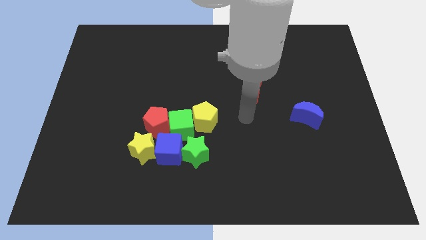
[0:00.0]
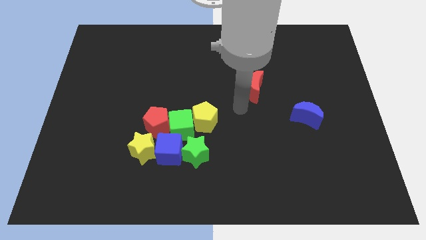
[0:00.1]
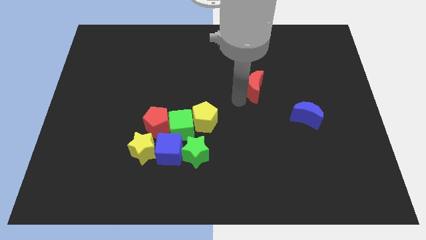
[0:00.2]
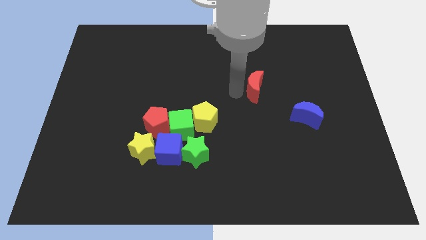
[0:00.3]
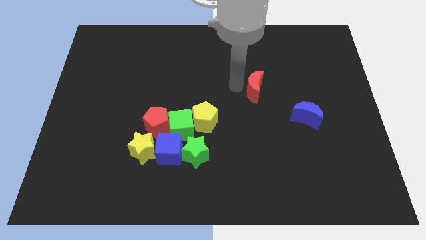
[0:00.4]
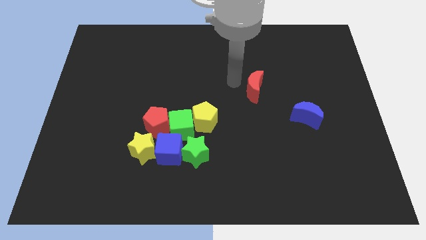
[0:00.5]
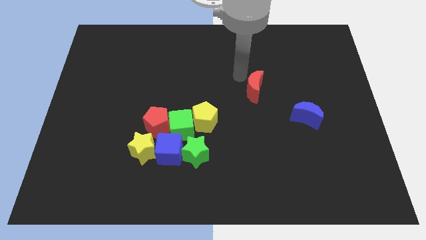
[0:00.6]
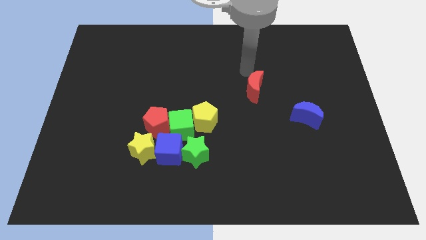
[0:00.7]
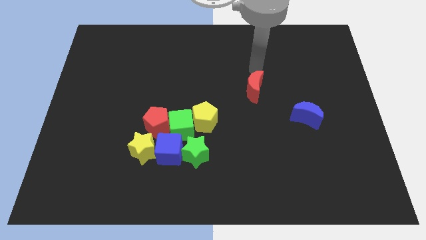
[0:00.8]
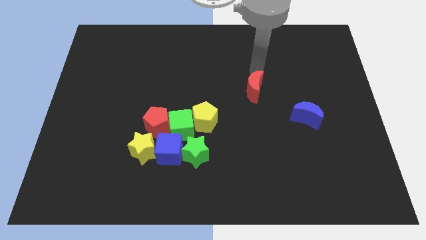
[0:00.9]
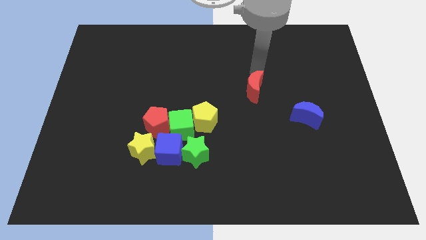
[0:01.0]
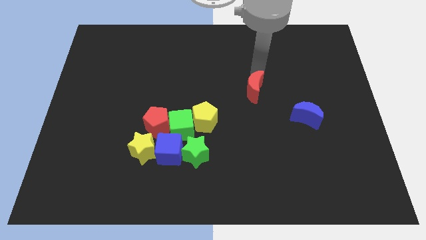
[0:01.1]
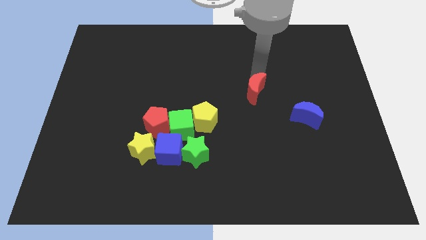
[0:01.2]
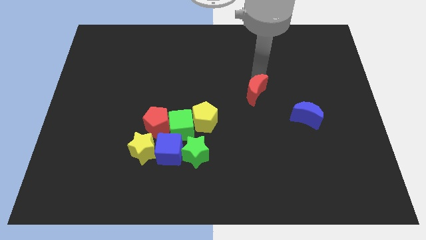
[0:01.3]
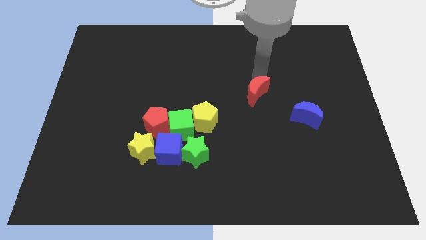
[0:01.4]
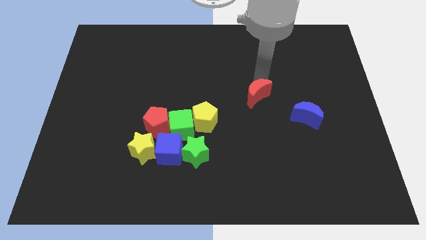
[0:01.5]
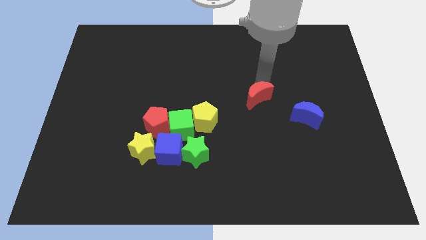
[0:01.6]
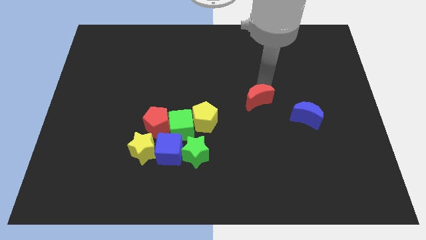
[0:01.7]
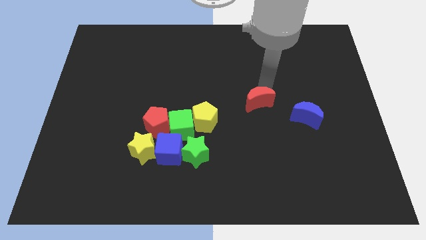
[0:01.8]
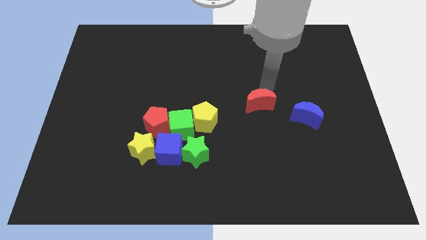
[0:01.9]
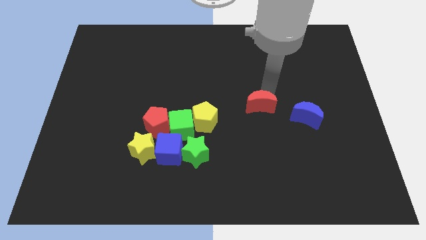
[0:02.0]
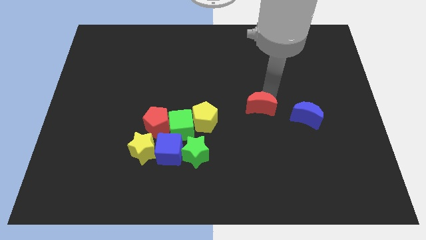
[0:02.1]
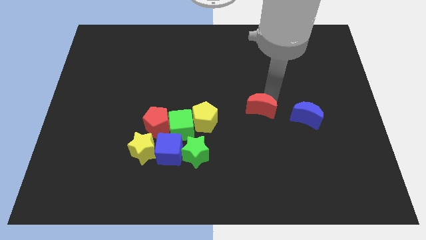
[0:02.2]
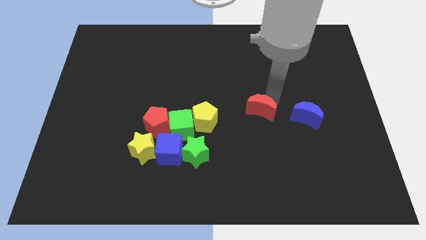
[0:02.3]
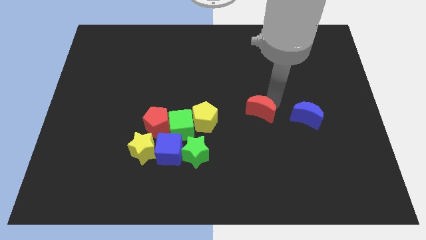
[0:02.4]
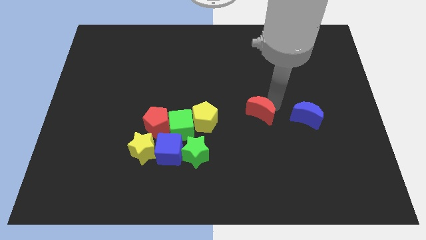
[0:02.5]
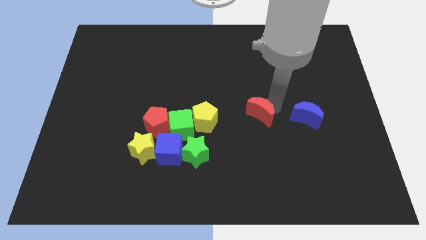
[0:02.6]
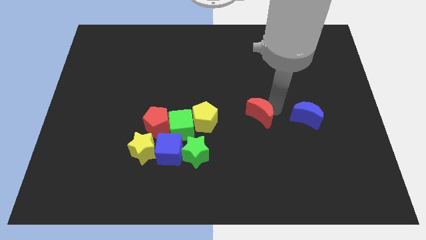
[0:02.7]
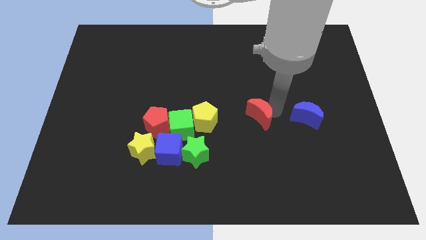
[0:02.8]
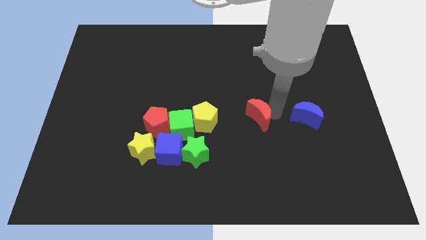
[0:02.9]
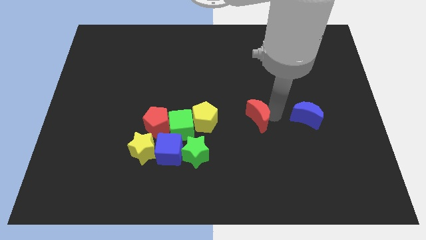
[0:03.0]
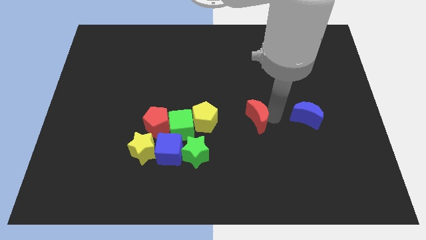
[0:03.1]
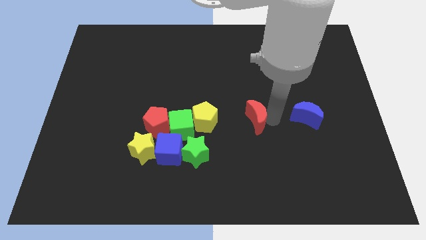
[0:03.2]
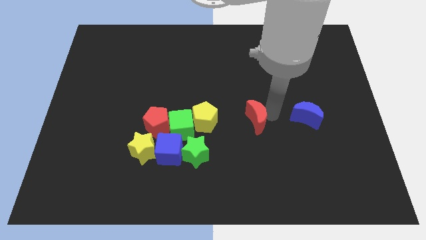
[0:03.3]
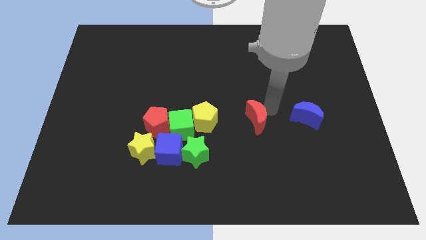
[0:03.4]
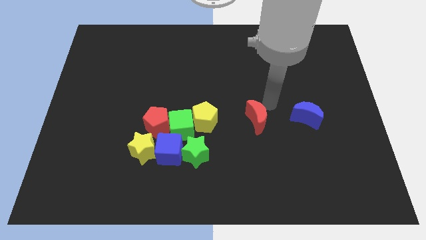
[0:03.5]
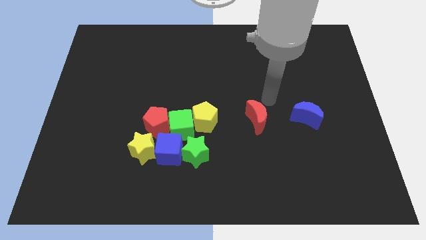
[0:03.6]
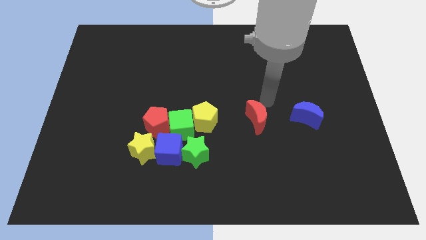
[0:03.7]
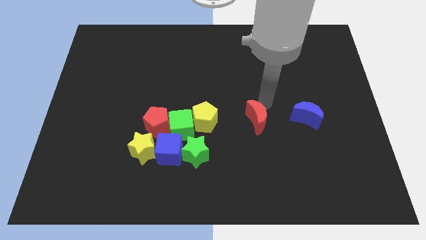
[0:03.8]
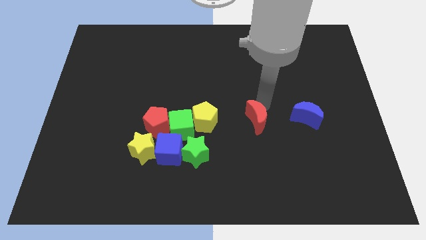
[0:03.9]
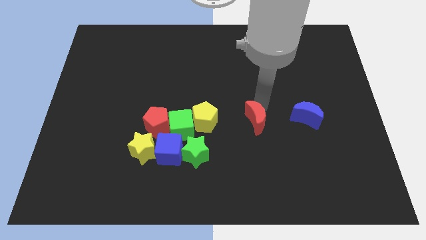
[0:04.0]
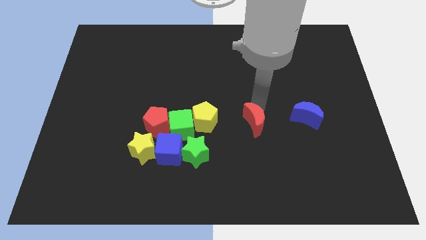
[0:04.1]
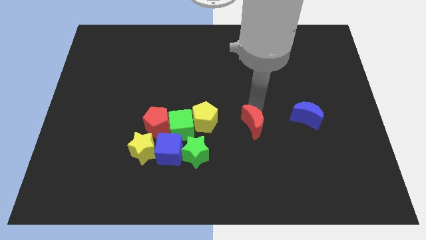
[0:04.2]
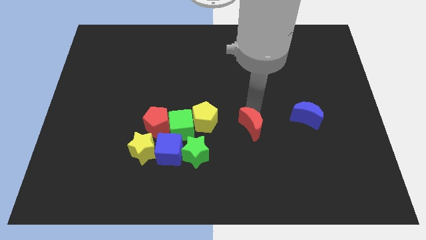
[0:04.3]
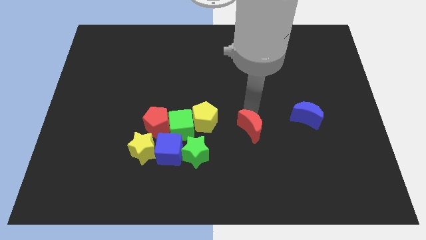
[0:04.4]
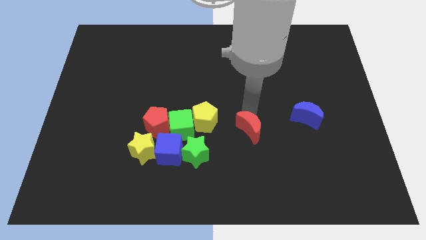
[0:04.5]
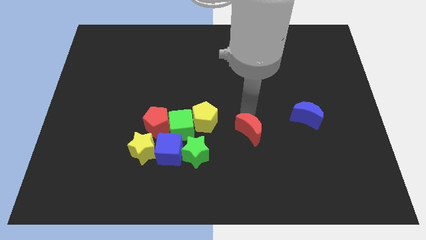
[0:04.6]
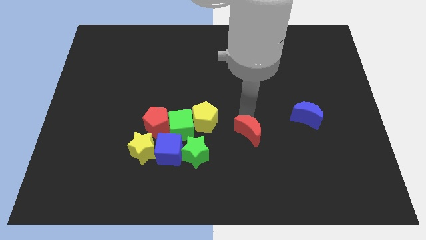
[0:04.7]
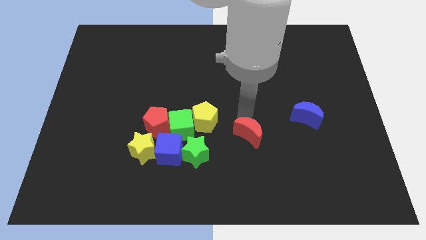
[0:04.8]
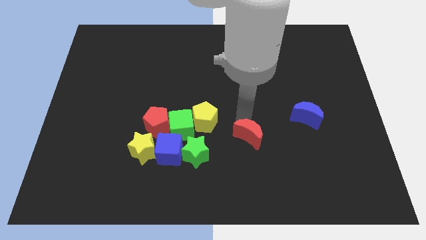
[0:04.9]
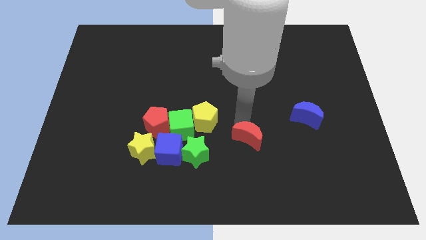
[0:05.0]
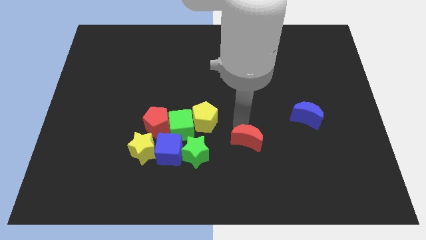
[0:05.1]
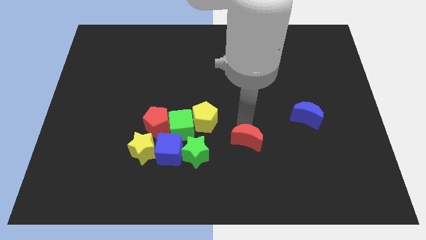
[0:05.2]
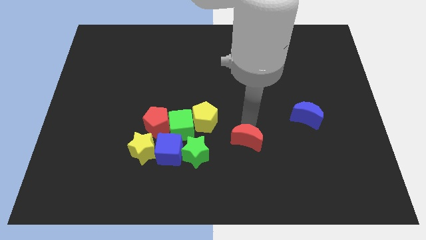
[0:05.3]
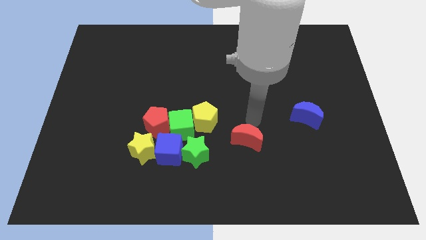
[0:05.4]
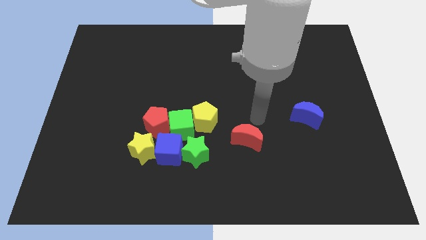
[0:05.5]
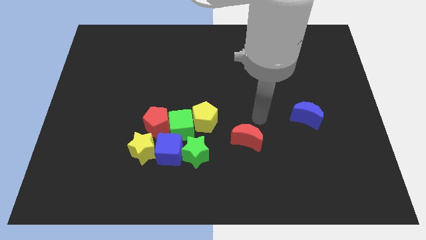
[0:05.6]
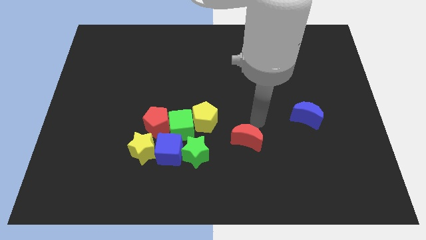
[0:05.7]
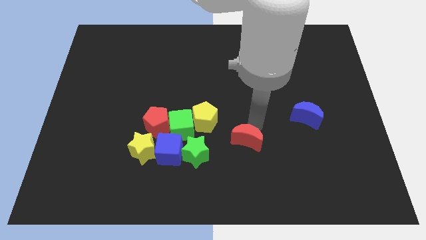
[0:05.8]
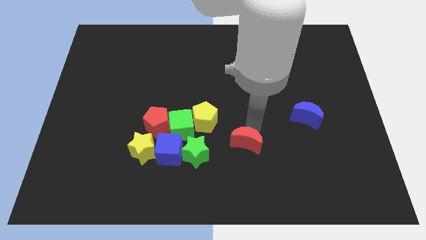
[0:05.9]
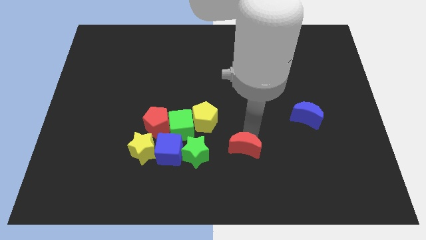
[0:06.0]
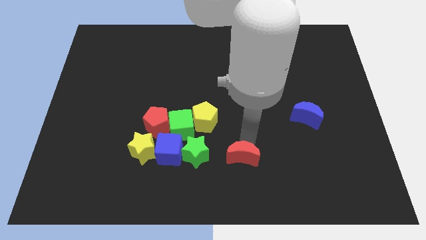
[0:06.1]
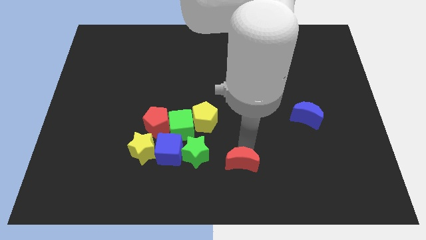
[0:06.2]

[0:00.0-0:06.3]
put the red moon to the bottom

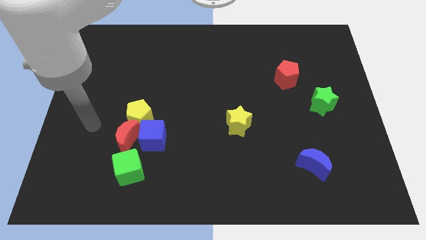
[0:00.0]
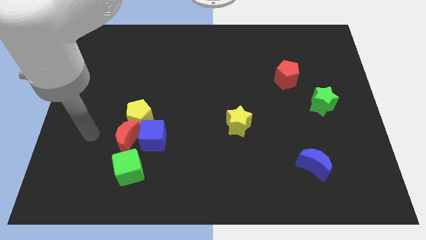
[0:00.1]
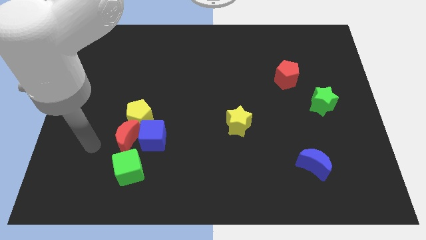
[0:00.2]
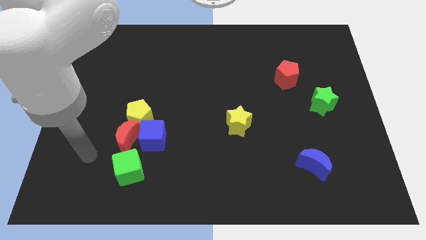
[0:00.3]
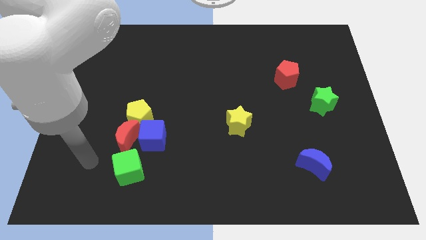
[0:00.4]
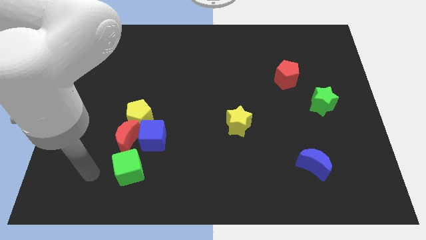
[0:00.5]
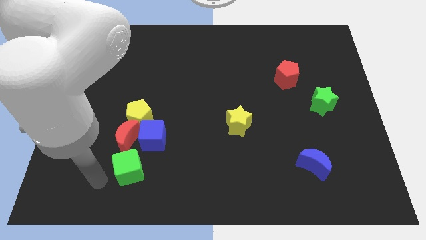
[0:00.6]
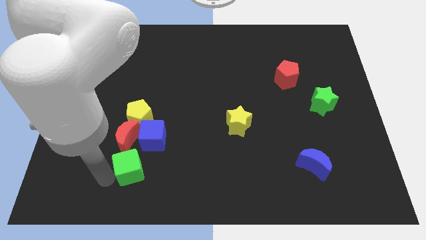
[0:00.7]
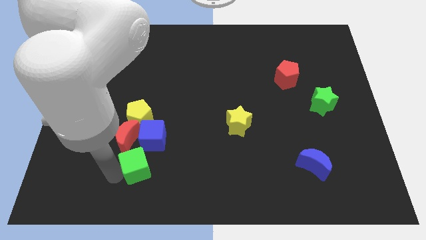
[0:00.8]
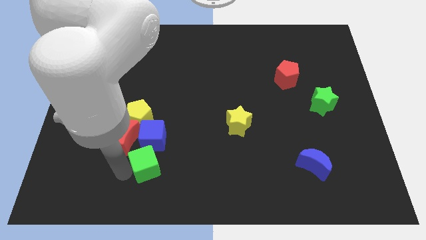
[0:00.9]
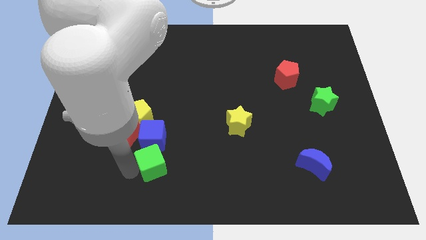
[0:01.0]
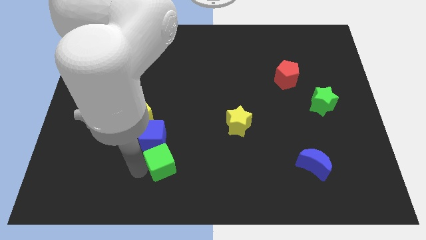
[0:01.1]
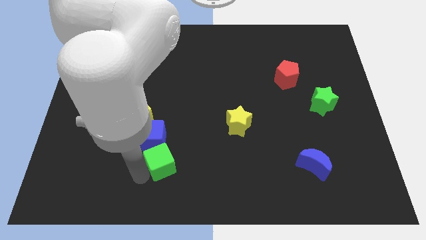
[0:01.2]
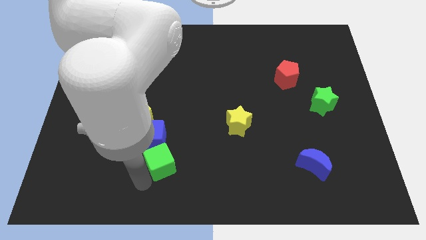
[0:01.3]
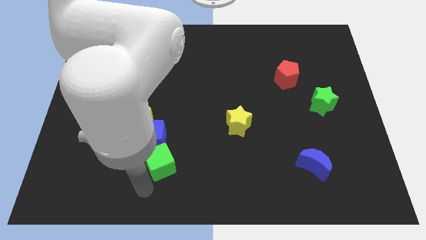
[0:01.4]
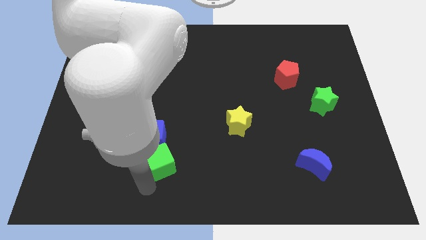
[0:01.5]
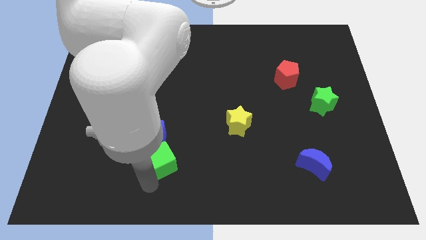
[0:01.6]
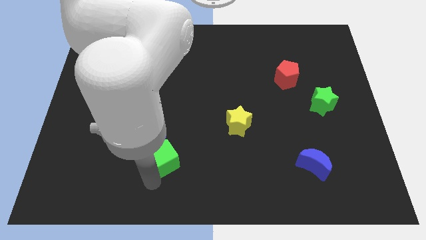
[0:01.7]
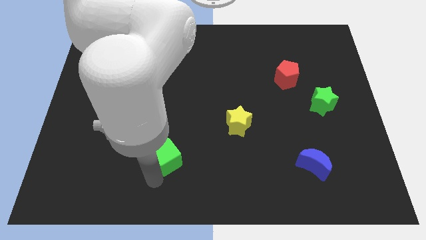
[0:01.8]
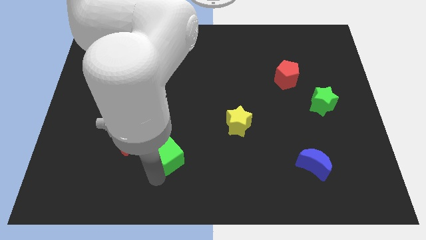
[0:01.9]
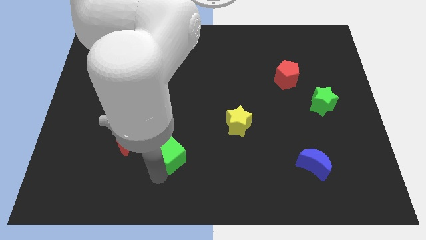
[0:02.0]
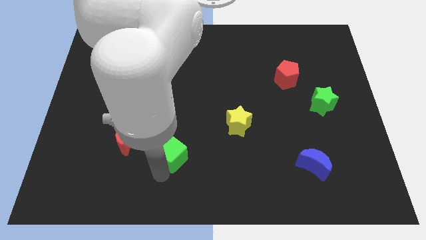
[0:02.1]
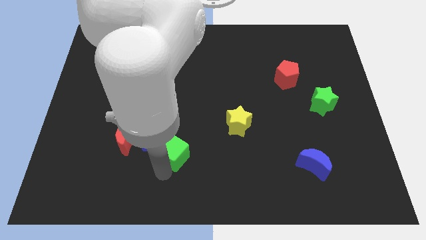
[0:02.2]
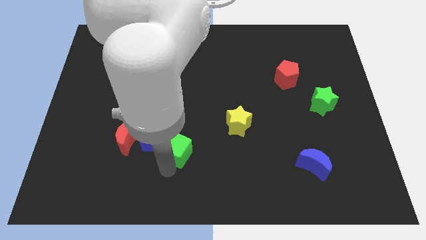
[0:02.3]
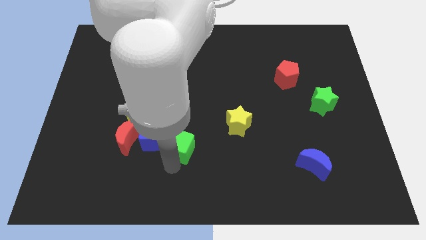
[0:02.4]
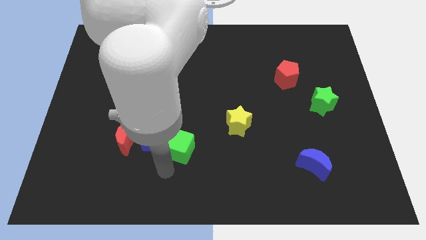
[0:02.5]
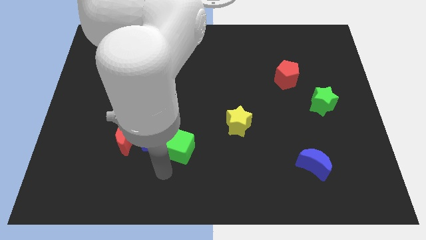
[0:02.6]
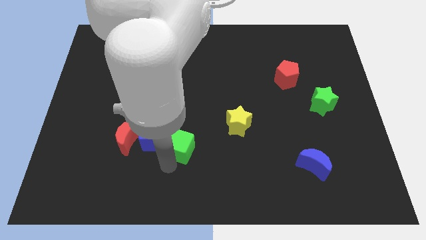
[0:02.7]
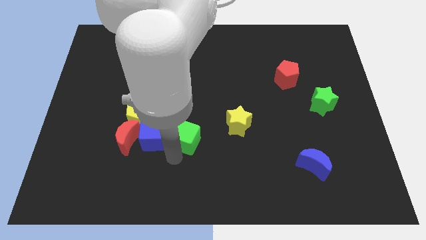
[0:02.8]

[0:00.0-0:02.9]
move the green cube to the center of the board
